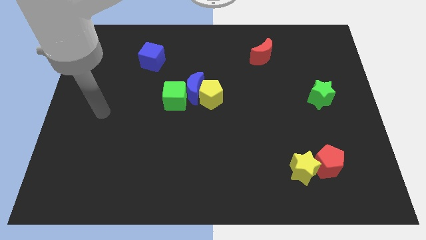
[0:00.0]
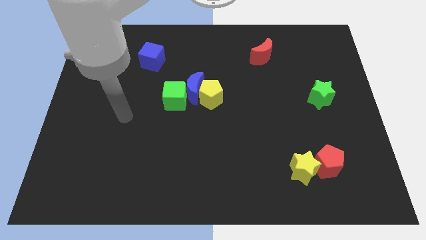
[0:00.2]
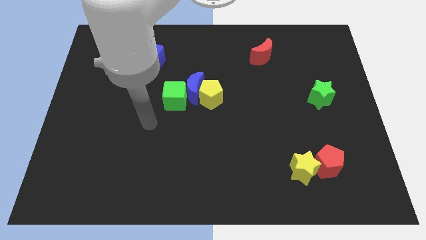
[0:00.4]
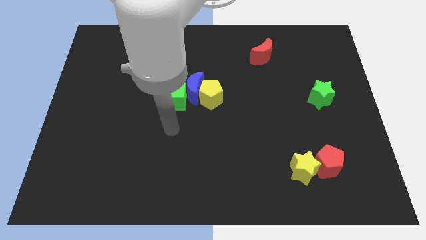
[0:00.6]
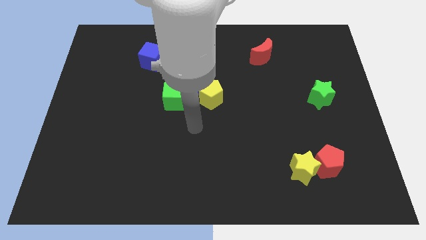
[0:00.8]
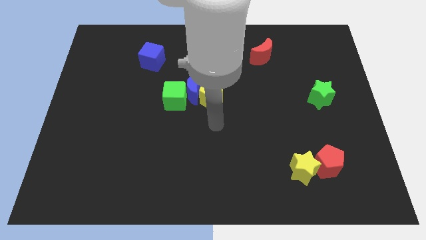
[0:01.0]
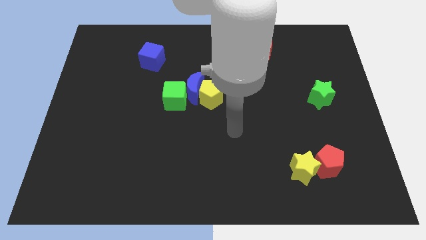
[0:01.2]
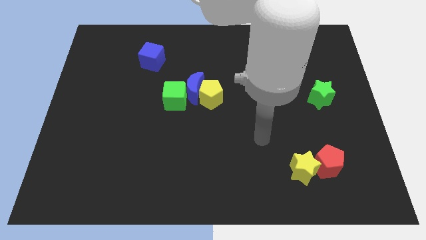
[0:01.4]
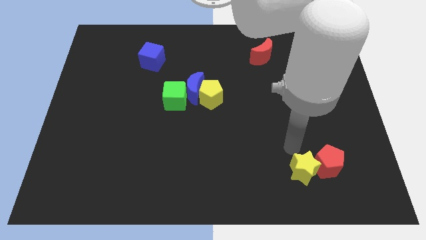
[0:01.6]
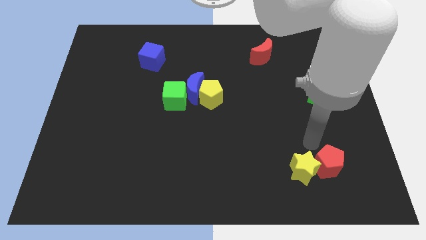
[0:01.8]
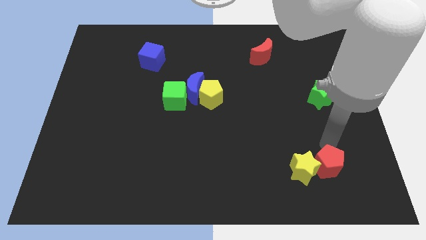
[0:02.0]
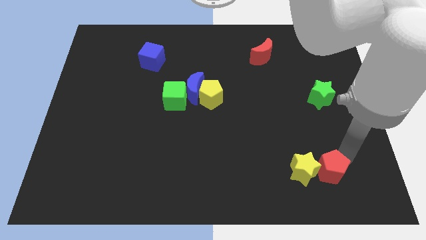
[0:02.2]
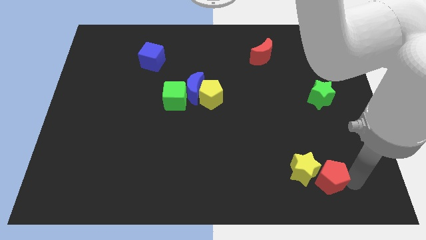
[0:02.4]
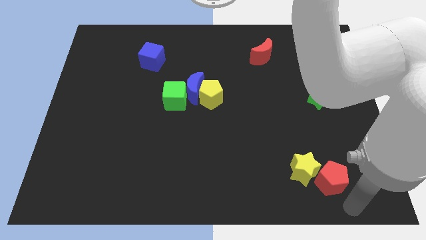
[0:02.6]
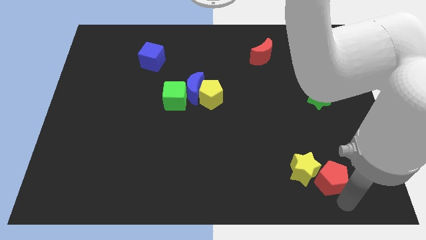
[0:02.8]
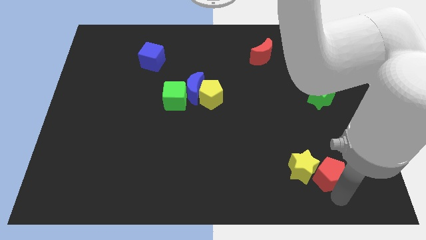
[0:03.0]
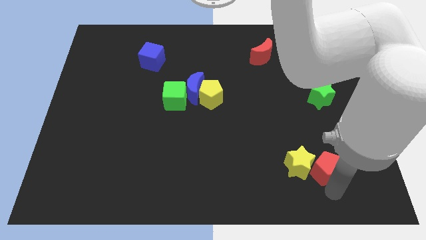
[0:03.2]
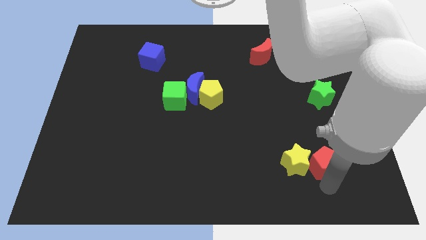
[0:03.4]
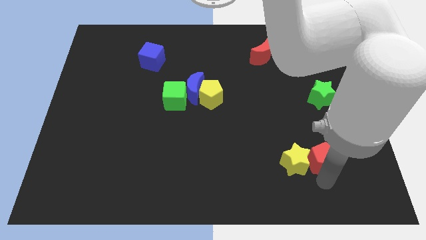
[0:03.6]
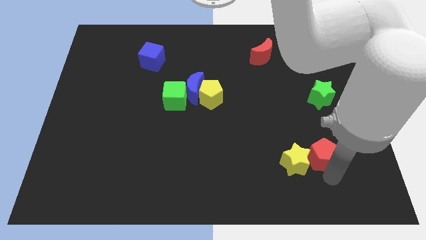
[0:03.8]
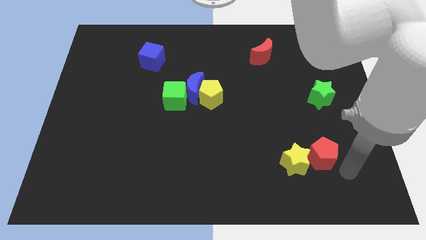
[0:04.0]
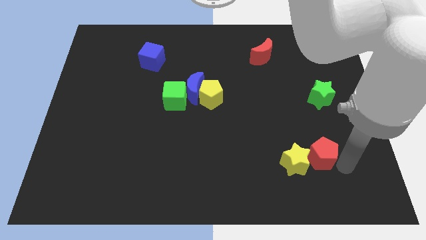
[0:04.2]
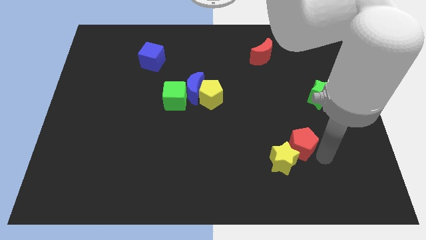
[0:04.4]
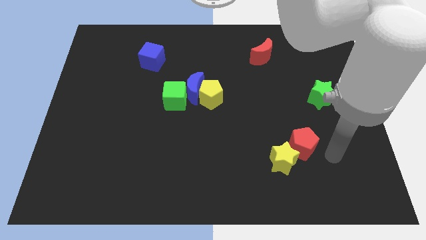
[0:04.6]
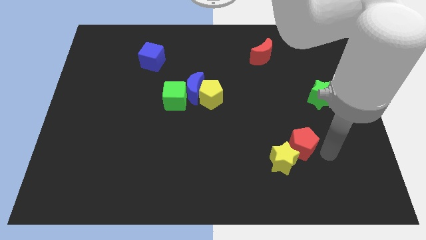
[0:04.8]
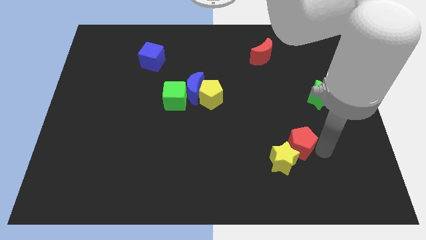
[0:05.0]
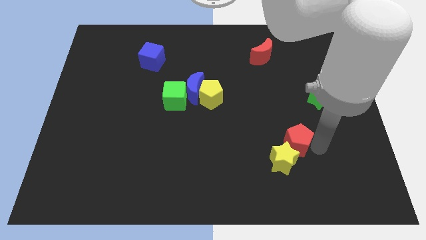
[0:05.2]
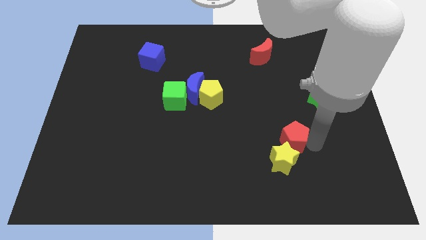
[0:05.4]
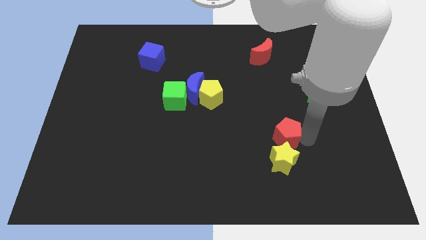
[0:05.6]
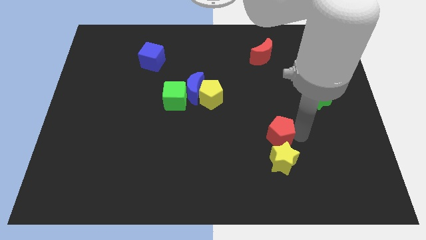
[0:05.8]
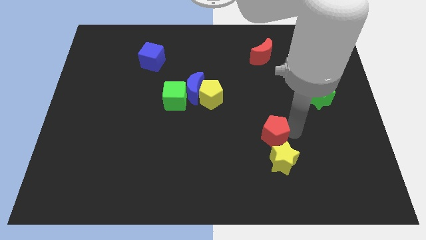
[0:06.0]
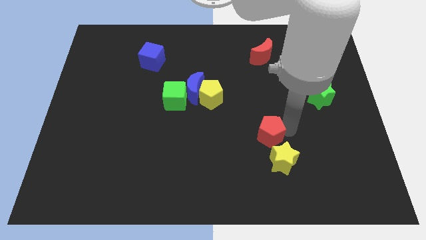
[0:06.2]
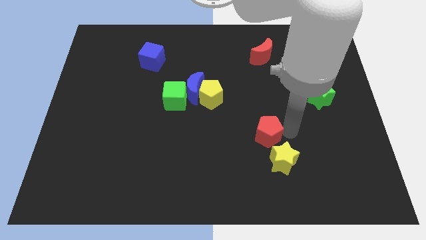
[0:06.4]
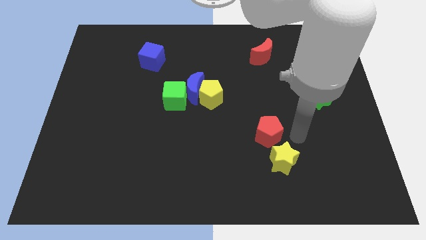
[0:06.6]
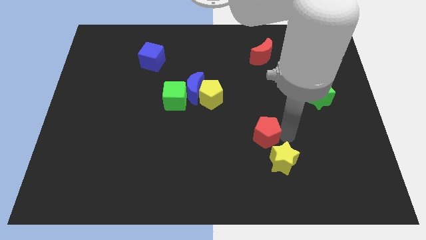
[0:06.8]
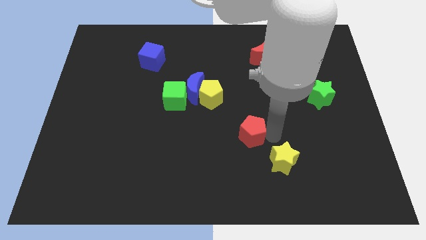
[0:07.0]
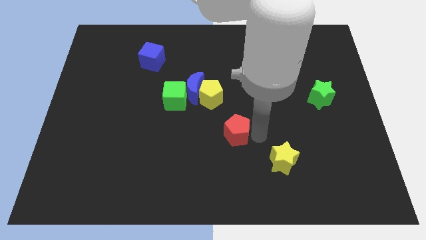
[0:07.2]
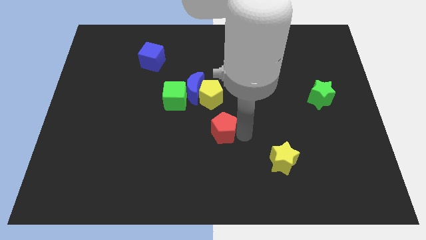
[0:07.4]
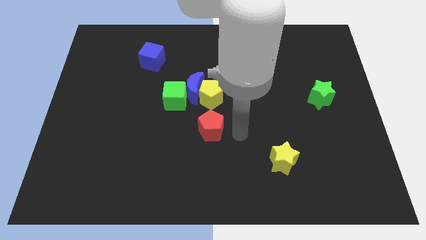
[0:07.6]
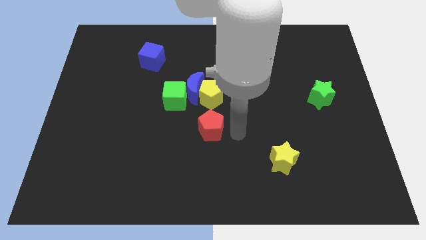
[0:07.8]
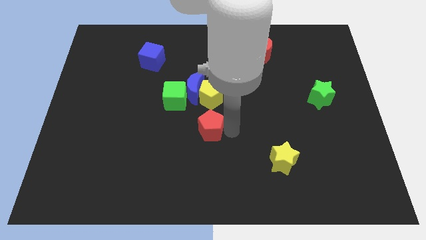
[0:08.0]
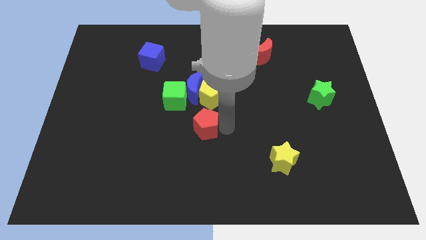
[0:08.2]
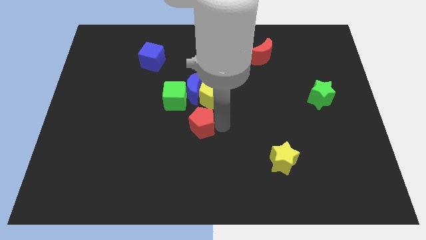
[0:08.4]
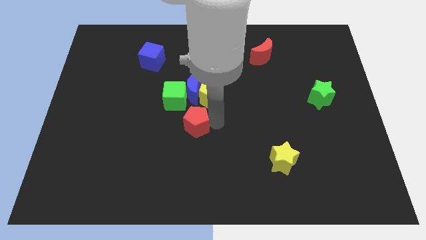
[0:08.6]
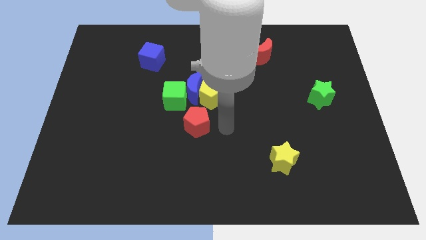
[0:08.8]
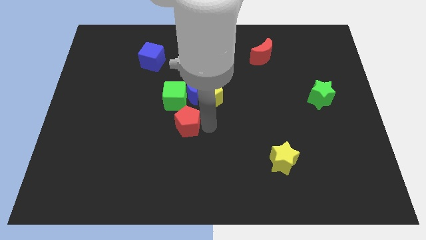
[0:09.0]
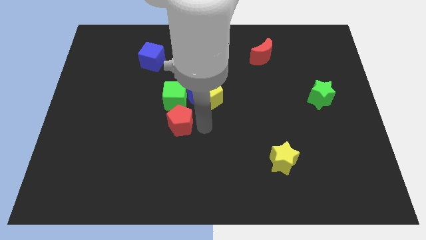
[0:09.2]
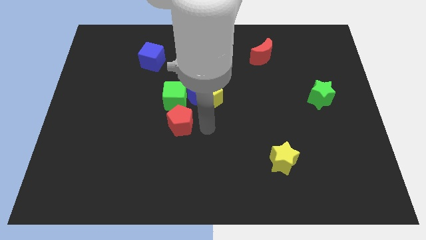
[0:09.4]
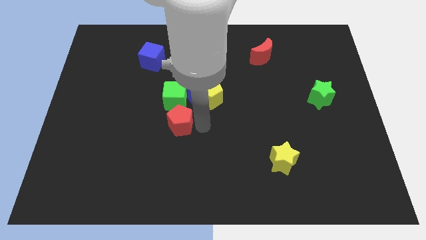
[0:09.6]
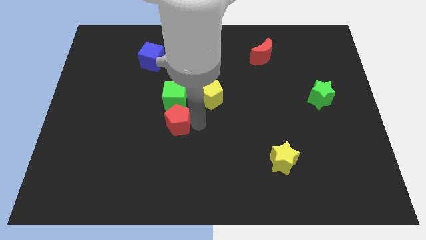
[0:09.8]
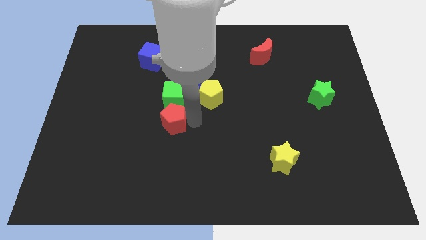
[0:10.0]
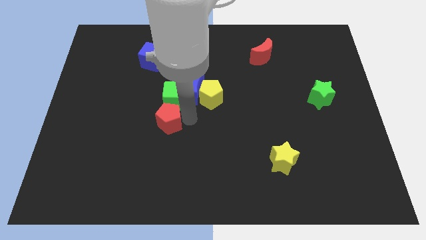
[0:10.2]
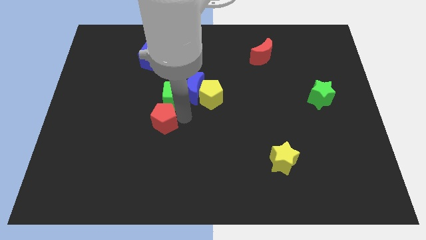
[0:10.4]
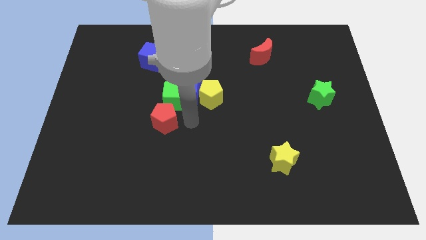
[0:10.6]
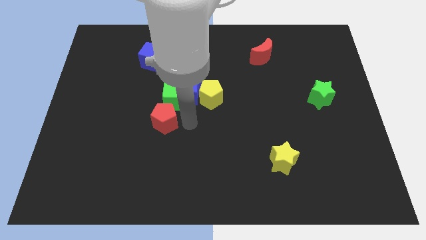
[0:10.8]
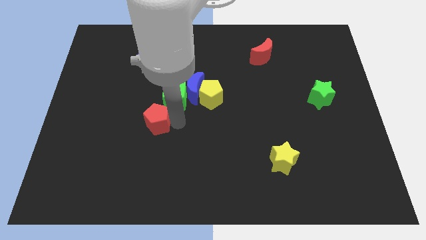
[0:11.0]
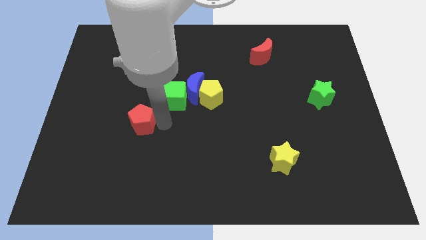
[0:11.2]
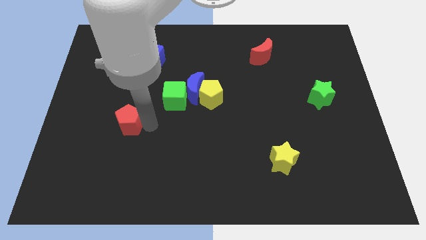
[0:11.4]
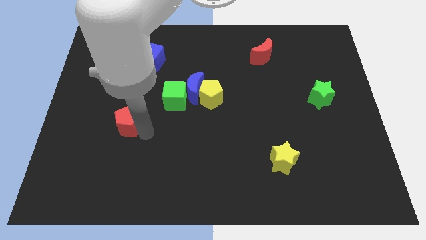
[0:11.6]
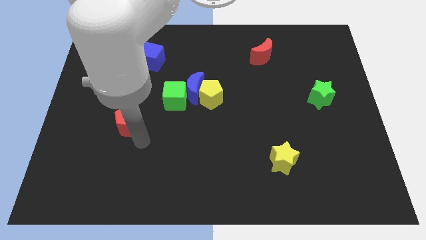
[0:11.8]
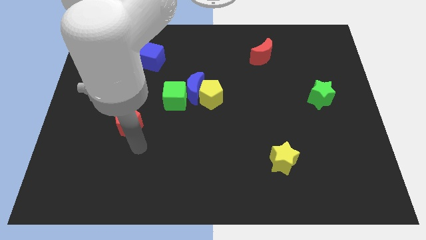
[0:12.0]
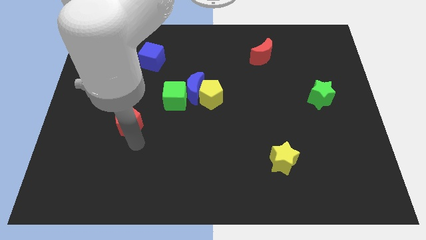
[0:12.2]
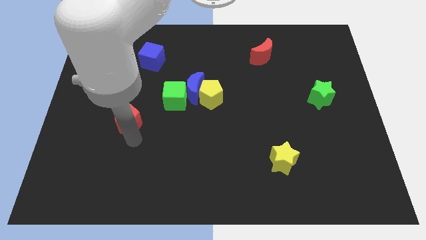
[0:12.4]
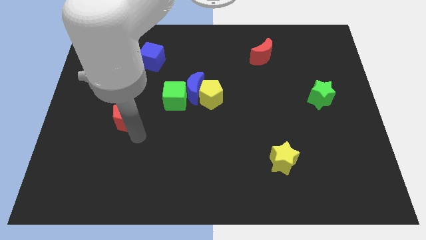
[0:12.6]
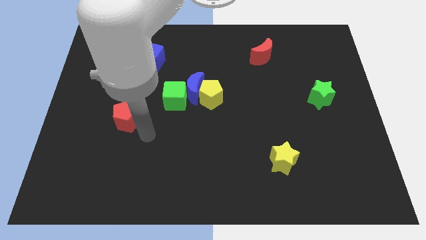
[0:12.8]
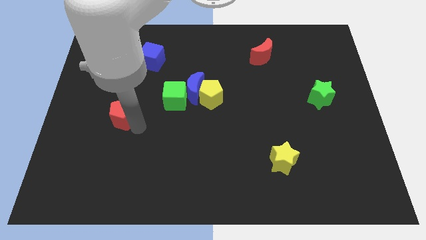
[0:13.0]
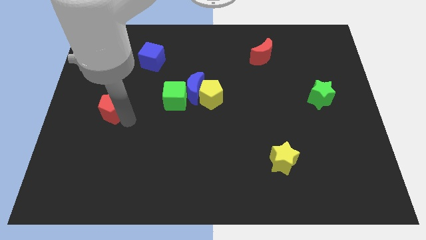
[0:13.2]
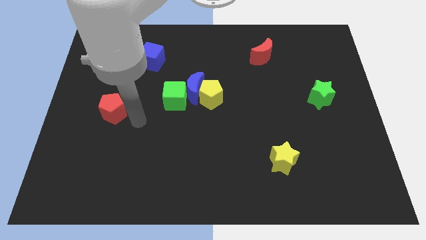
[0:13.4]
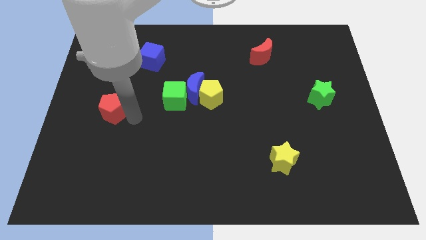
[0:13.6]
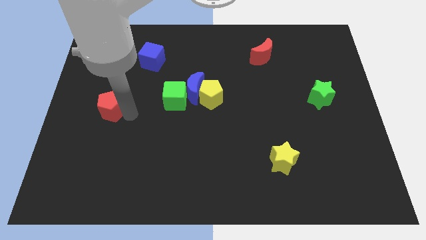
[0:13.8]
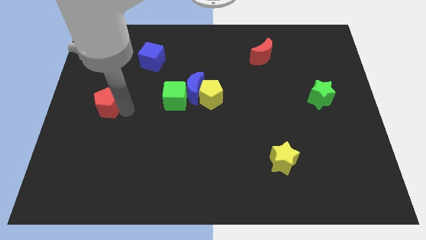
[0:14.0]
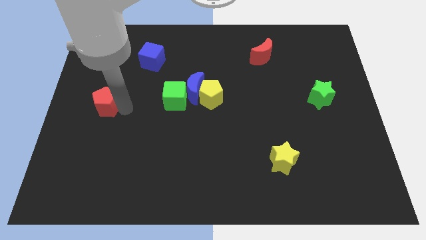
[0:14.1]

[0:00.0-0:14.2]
slide the red pentagon to the left side of the board
